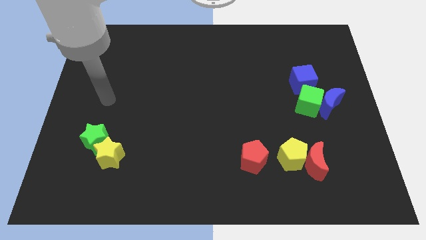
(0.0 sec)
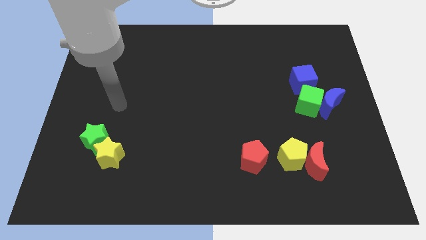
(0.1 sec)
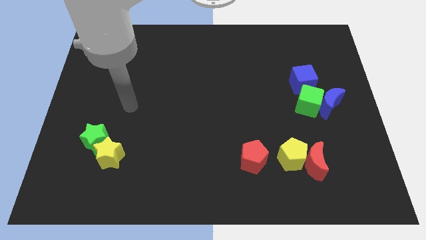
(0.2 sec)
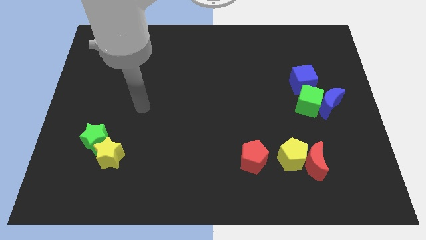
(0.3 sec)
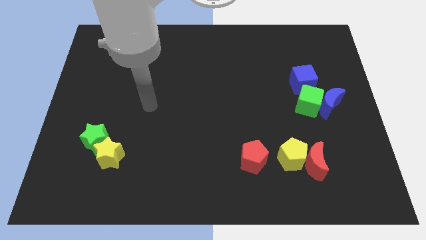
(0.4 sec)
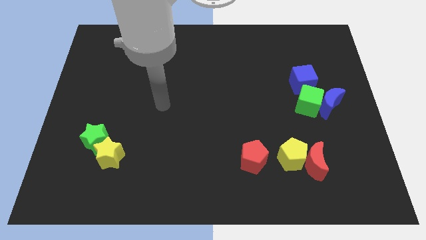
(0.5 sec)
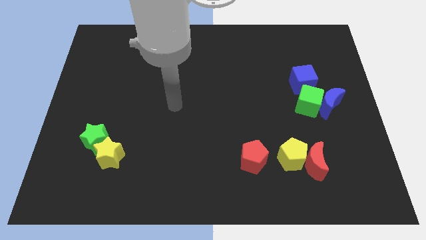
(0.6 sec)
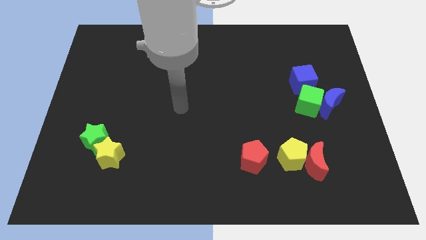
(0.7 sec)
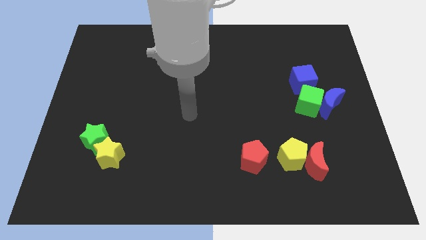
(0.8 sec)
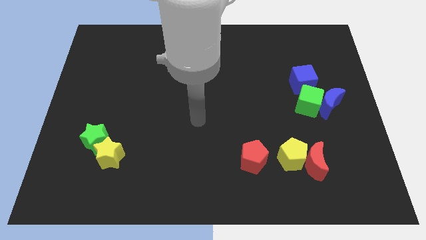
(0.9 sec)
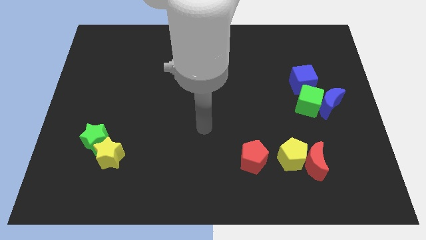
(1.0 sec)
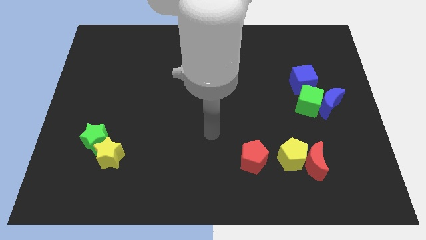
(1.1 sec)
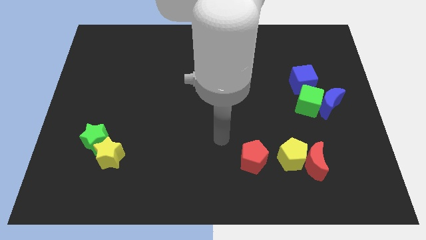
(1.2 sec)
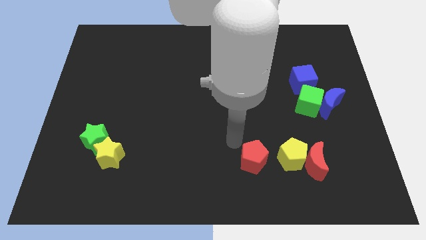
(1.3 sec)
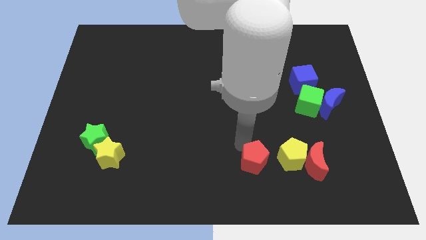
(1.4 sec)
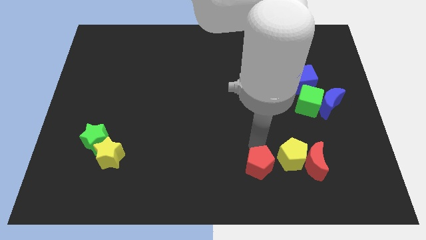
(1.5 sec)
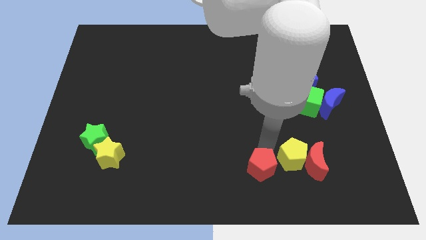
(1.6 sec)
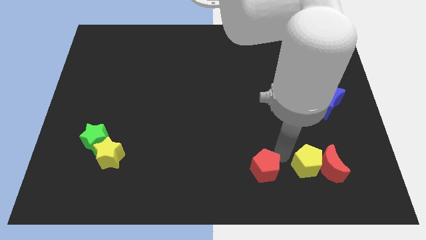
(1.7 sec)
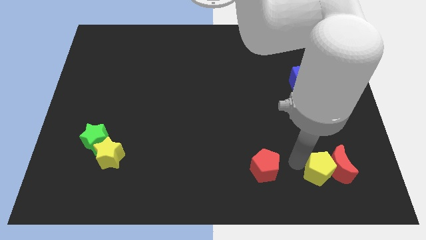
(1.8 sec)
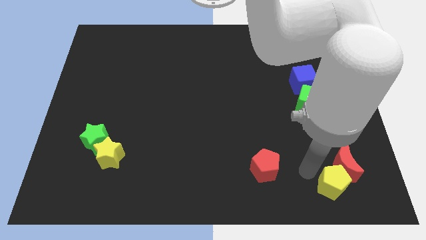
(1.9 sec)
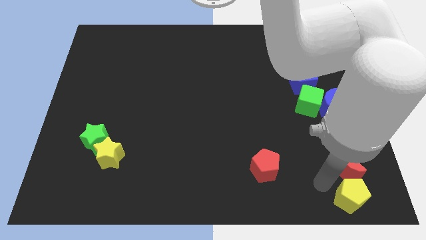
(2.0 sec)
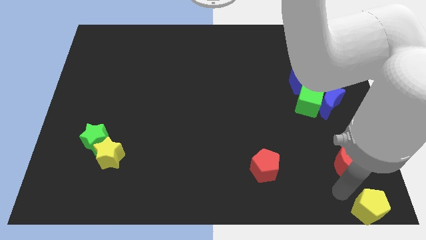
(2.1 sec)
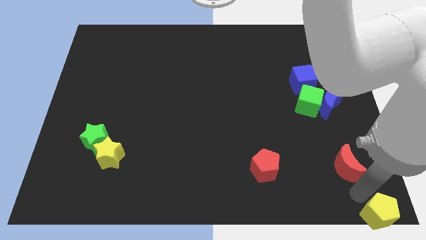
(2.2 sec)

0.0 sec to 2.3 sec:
pull the red moon apart from the yellow pentagon

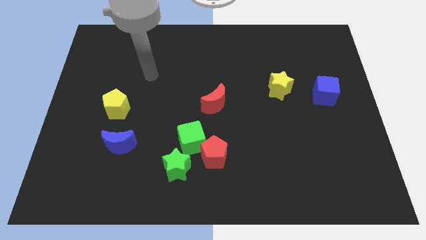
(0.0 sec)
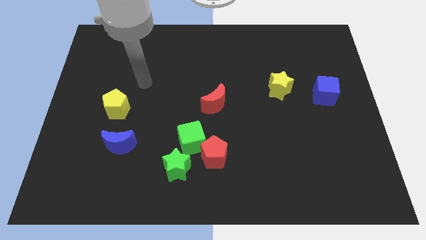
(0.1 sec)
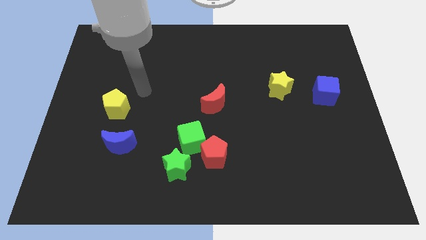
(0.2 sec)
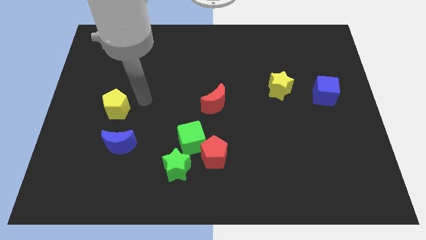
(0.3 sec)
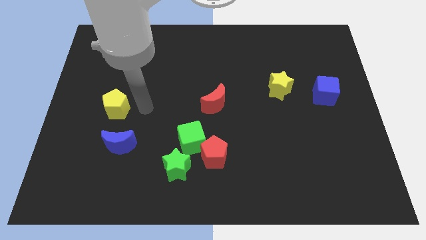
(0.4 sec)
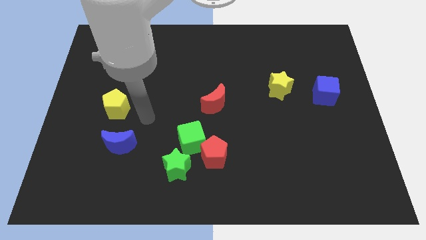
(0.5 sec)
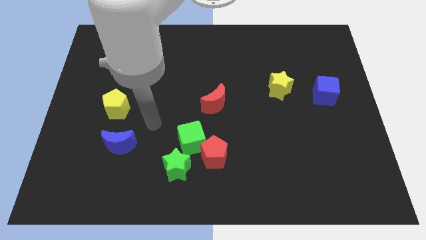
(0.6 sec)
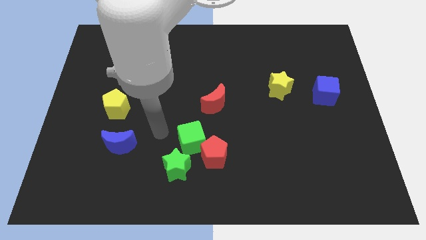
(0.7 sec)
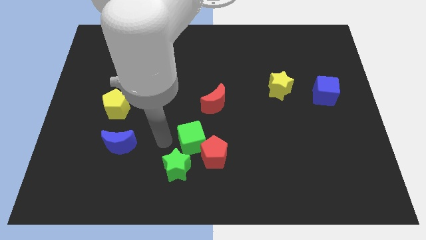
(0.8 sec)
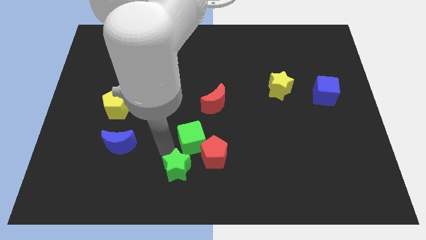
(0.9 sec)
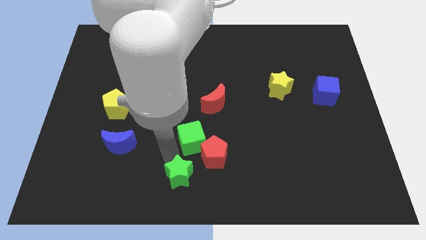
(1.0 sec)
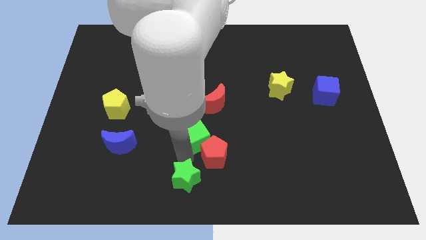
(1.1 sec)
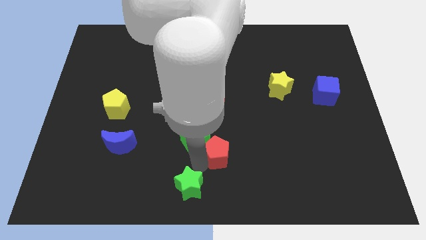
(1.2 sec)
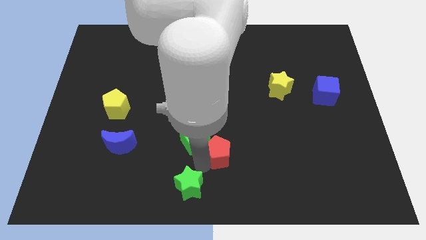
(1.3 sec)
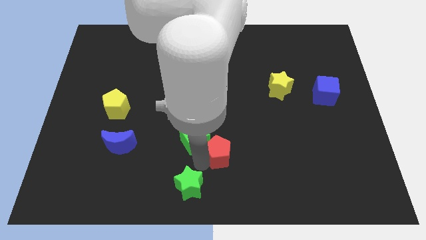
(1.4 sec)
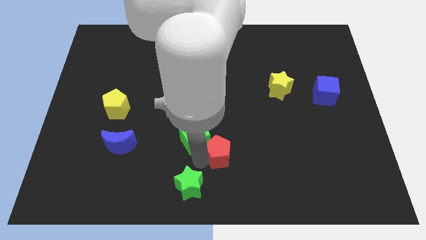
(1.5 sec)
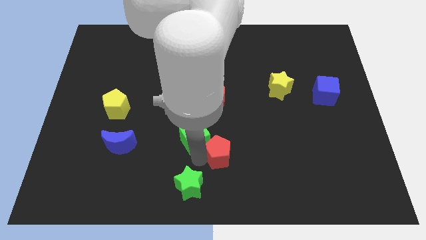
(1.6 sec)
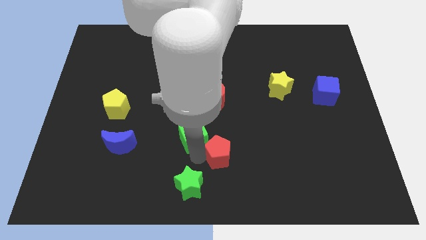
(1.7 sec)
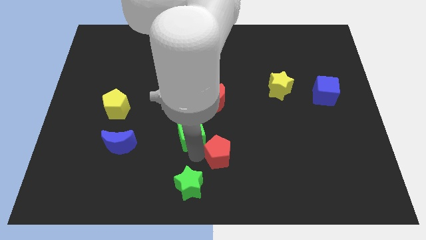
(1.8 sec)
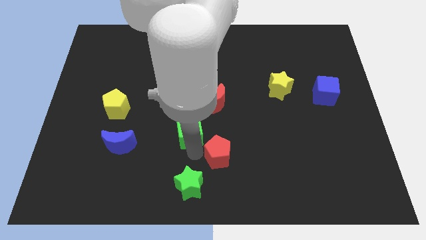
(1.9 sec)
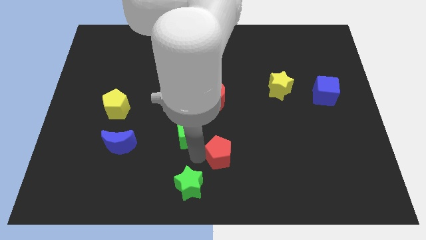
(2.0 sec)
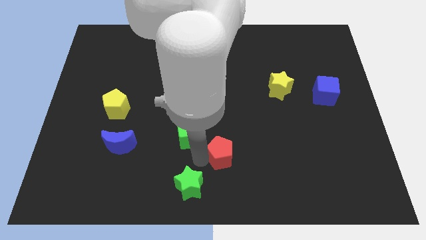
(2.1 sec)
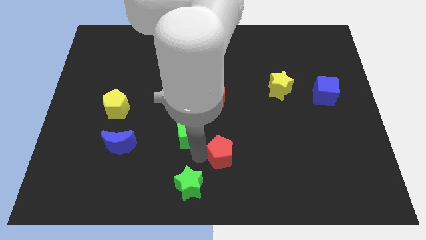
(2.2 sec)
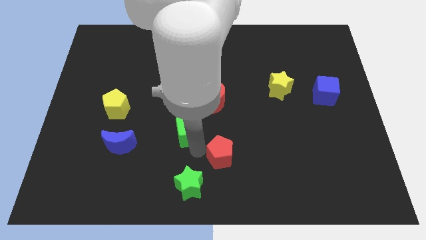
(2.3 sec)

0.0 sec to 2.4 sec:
move the green cube away from the red pentagon and green star

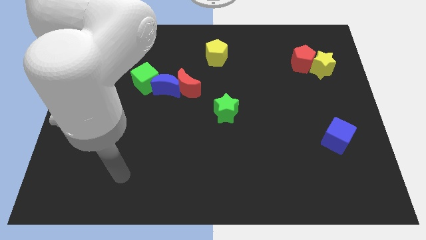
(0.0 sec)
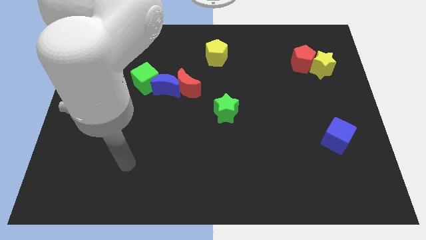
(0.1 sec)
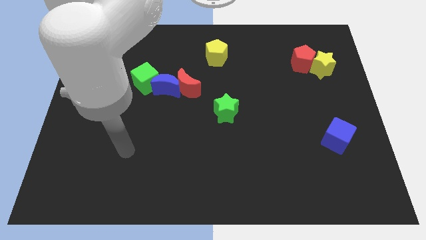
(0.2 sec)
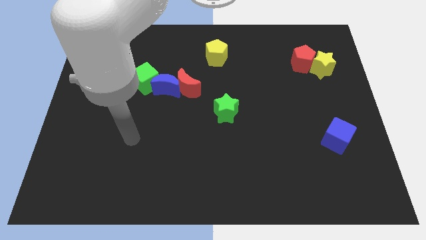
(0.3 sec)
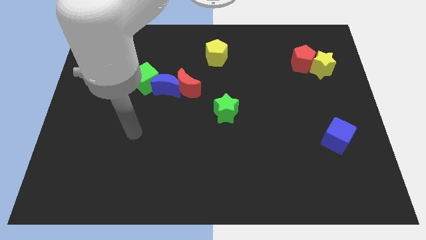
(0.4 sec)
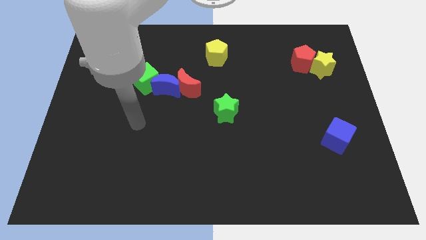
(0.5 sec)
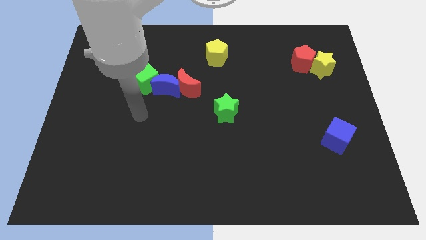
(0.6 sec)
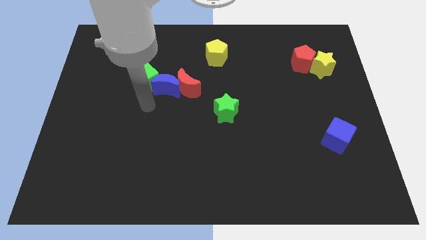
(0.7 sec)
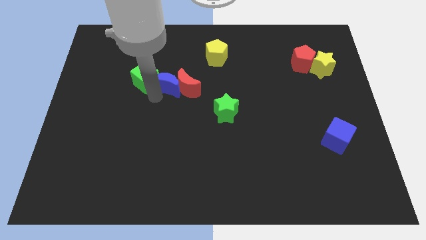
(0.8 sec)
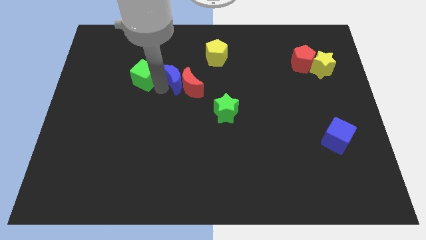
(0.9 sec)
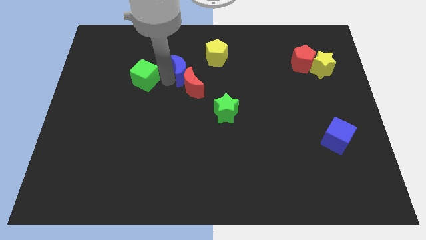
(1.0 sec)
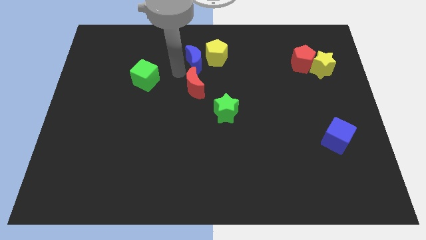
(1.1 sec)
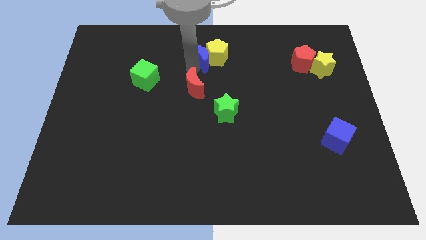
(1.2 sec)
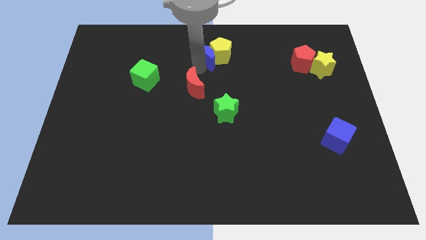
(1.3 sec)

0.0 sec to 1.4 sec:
move the red moon away from the blue moon

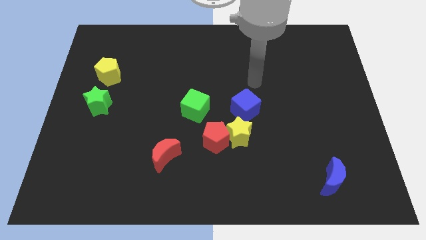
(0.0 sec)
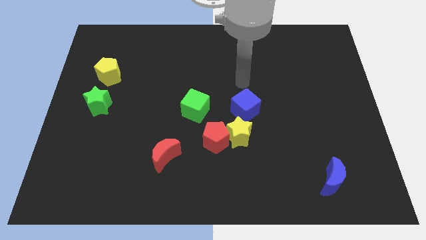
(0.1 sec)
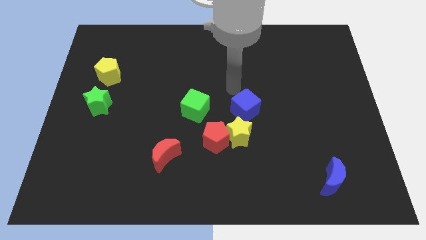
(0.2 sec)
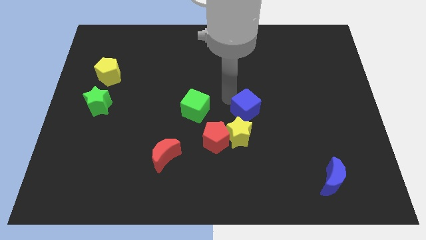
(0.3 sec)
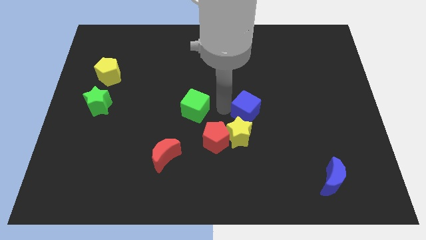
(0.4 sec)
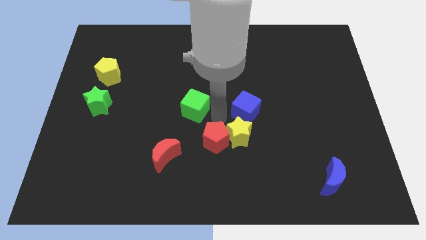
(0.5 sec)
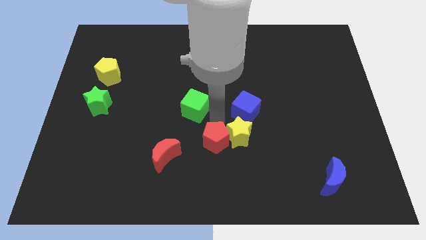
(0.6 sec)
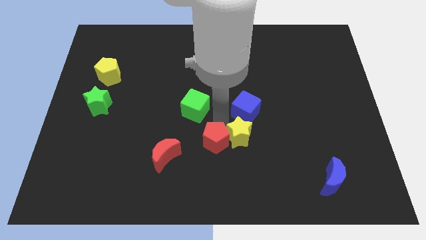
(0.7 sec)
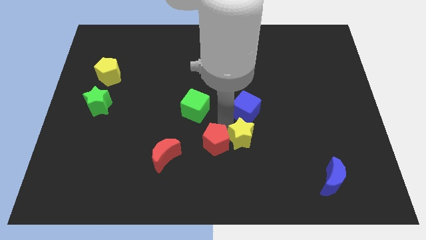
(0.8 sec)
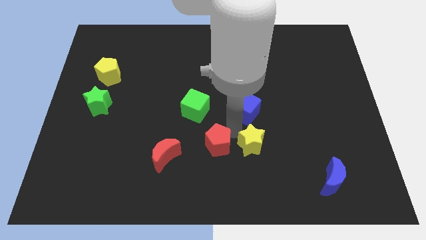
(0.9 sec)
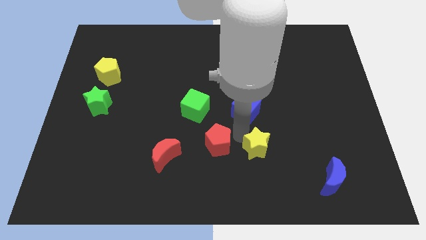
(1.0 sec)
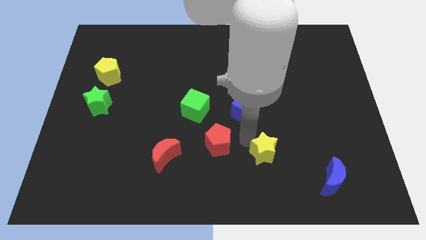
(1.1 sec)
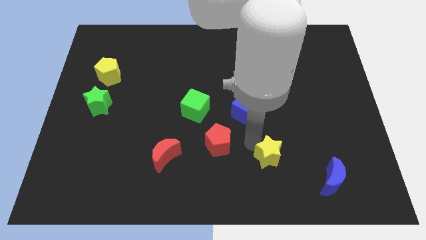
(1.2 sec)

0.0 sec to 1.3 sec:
move the yellow star away from the red pentagon and blue cube

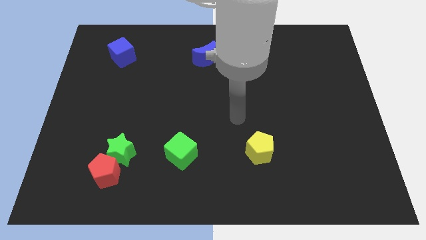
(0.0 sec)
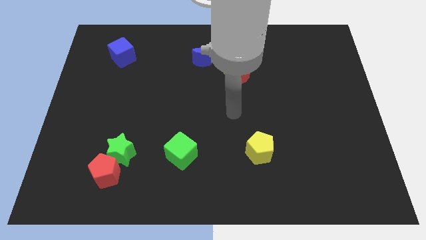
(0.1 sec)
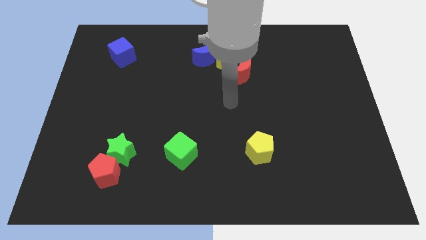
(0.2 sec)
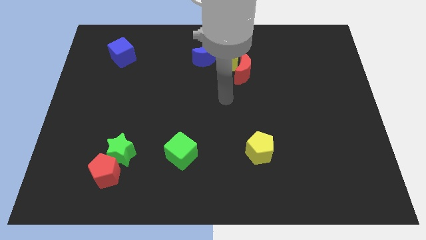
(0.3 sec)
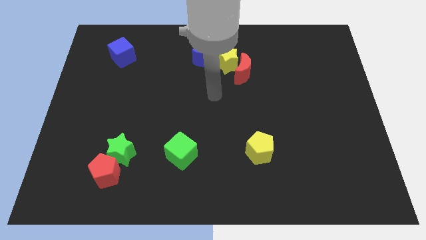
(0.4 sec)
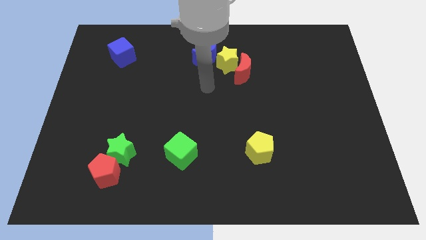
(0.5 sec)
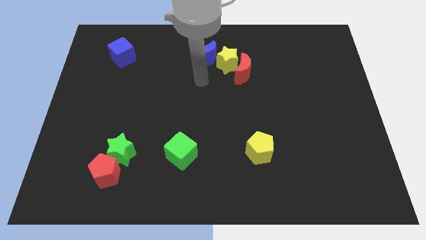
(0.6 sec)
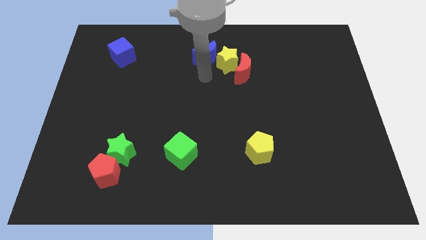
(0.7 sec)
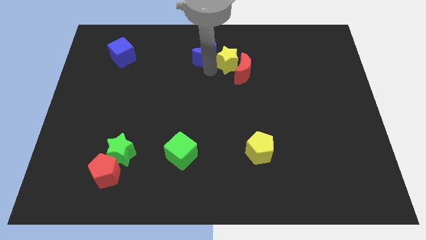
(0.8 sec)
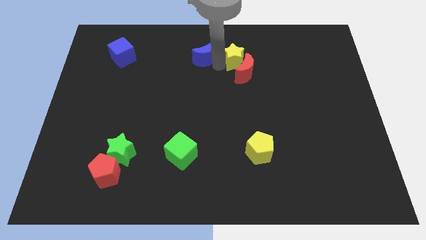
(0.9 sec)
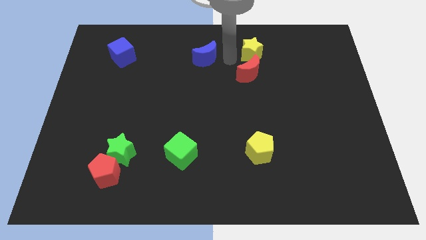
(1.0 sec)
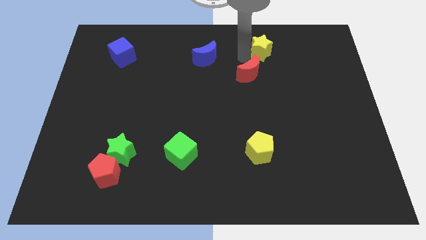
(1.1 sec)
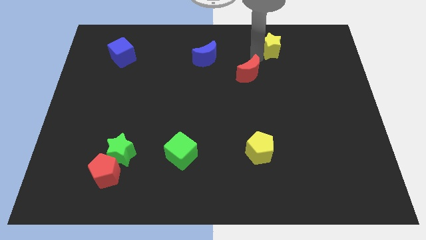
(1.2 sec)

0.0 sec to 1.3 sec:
pull the red moon apart from the yellow star

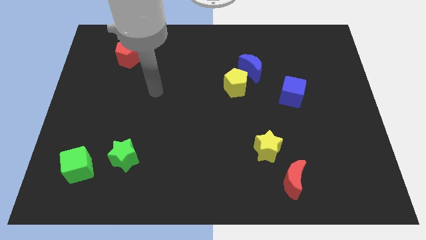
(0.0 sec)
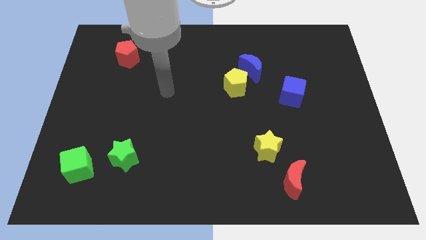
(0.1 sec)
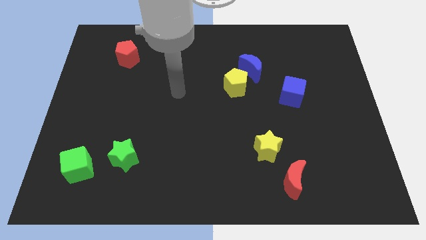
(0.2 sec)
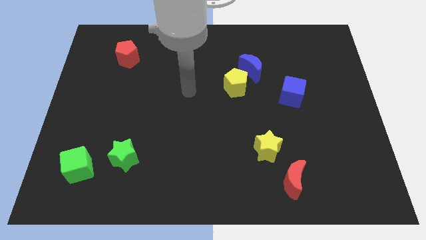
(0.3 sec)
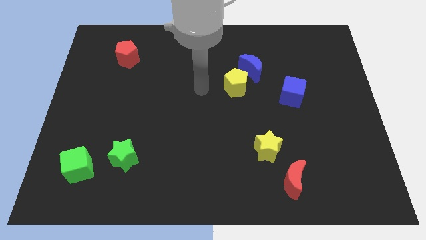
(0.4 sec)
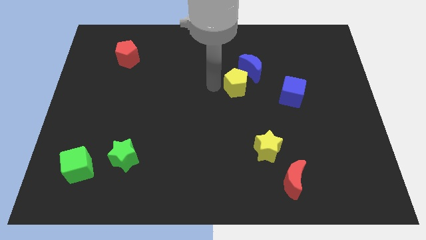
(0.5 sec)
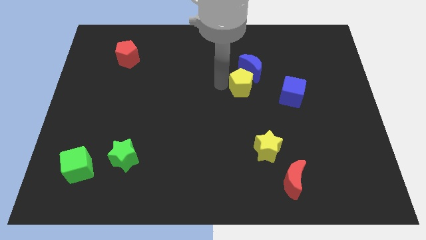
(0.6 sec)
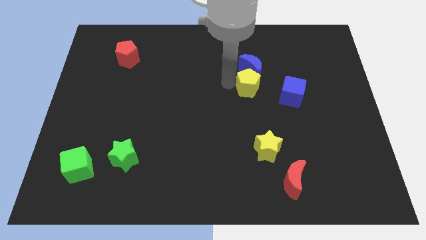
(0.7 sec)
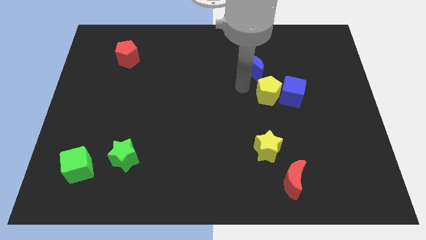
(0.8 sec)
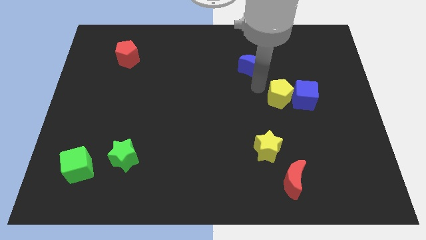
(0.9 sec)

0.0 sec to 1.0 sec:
move the blue moon away from the yellow pentagon
